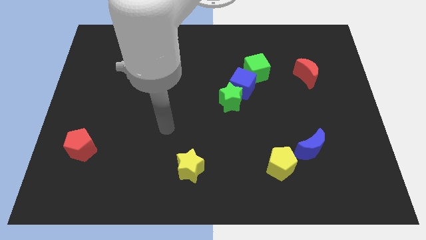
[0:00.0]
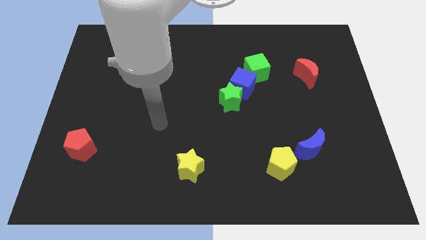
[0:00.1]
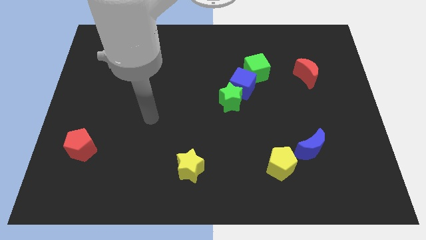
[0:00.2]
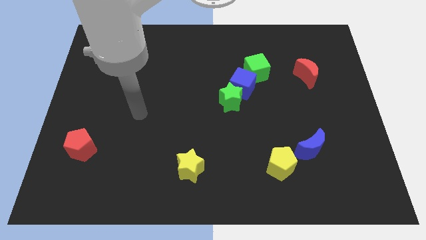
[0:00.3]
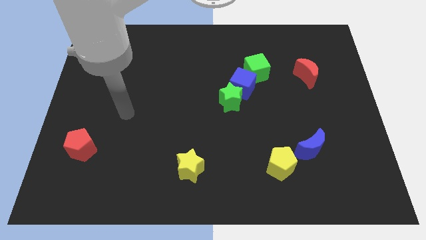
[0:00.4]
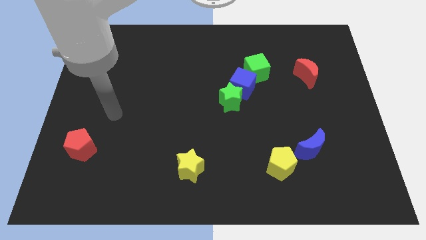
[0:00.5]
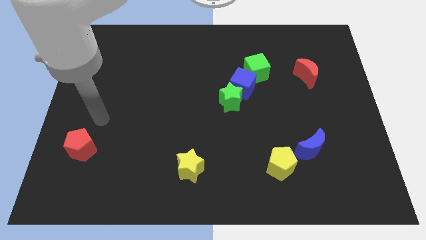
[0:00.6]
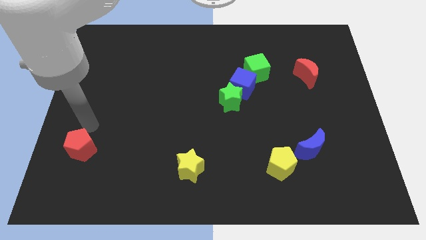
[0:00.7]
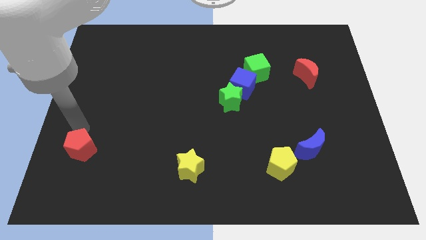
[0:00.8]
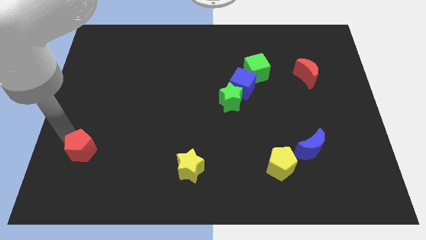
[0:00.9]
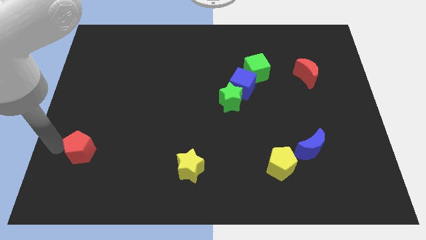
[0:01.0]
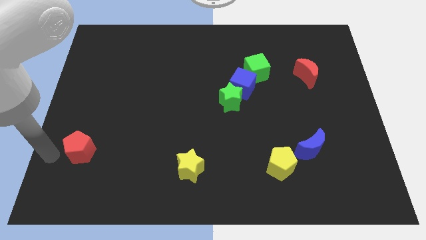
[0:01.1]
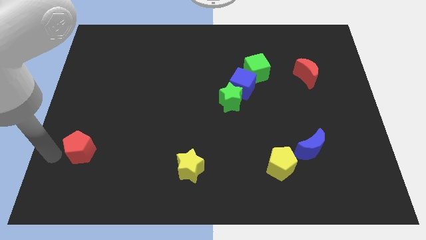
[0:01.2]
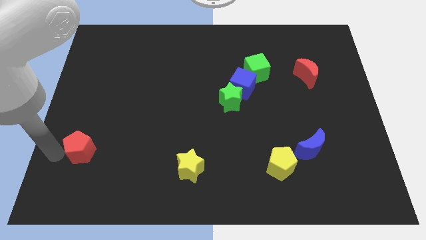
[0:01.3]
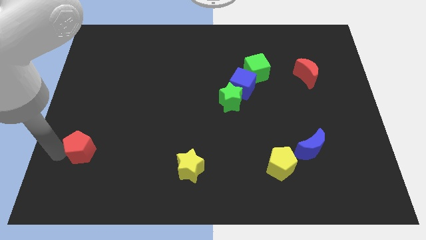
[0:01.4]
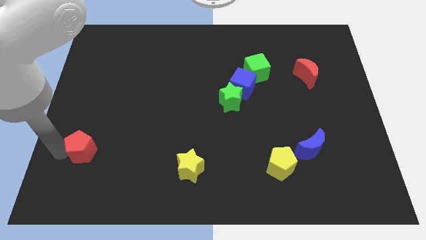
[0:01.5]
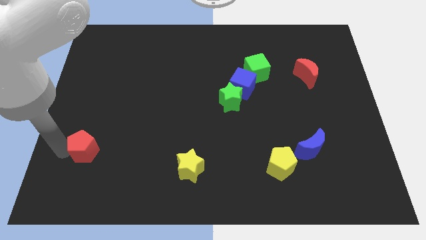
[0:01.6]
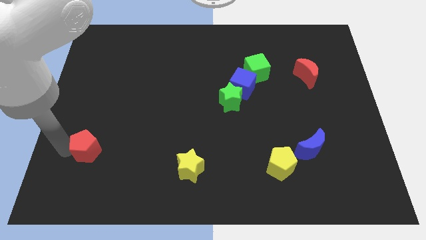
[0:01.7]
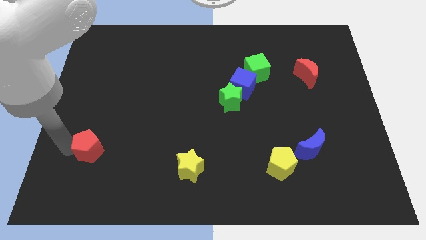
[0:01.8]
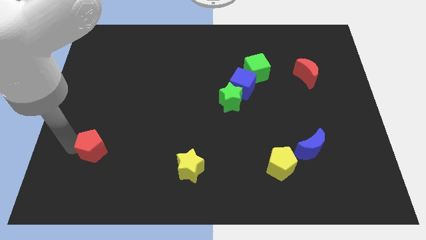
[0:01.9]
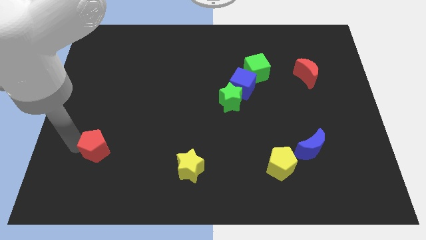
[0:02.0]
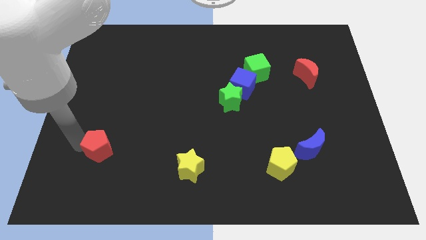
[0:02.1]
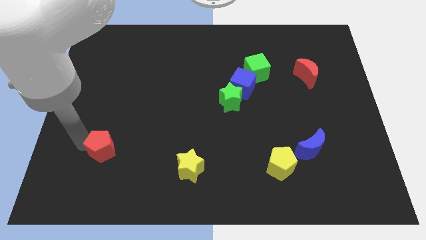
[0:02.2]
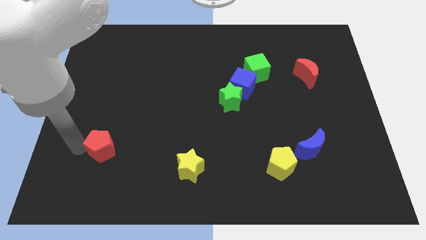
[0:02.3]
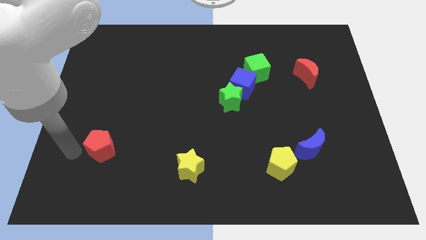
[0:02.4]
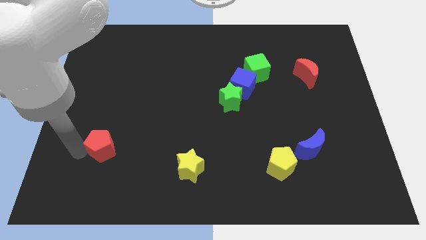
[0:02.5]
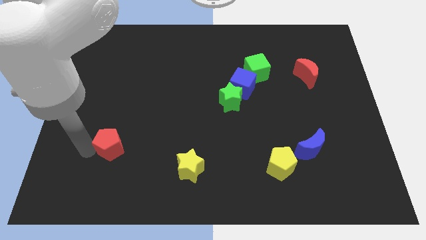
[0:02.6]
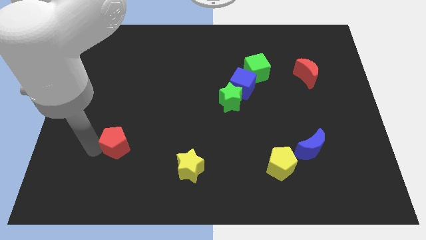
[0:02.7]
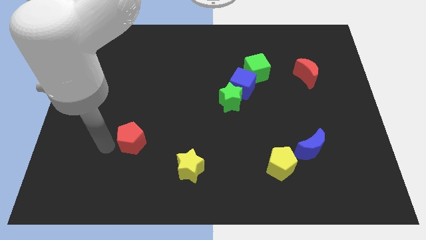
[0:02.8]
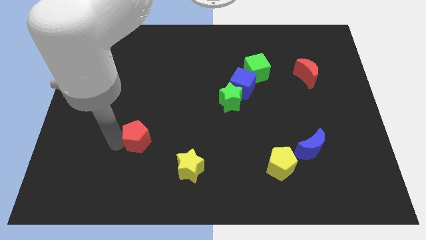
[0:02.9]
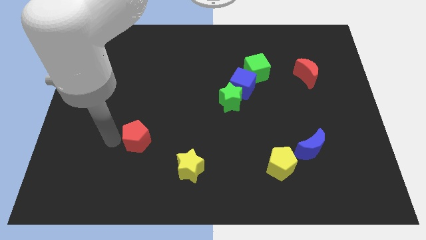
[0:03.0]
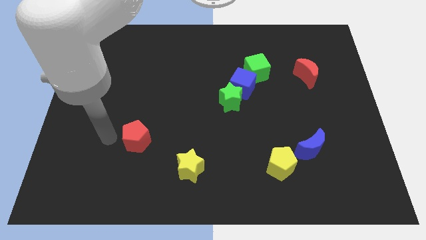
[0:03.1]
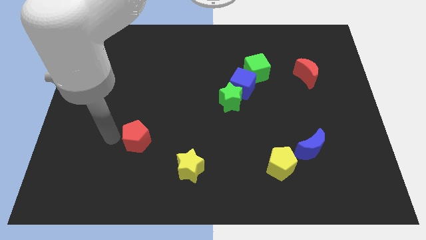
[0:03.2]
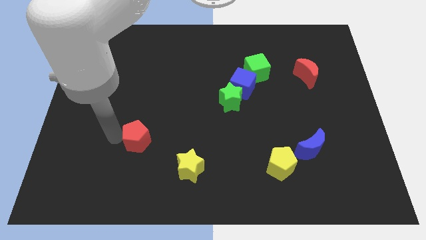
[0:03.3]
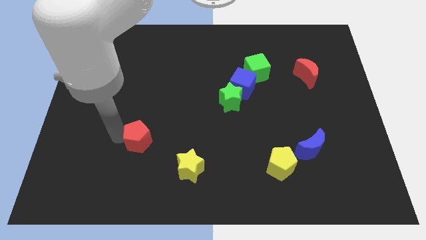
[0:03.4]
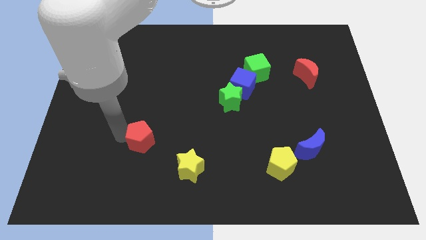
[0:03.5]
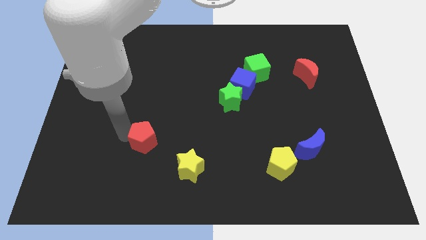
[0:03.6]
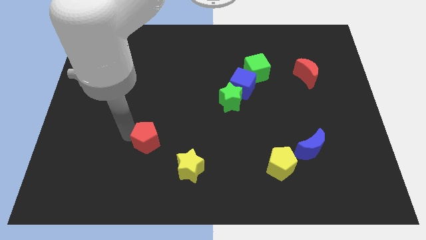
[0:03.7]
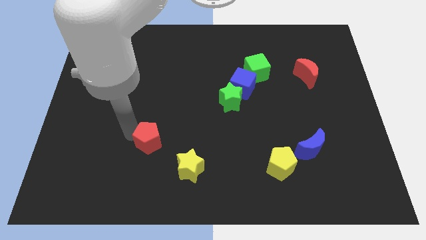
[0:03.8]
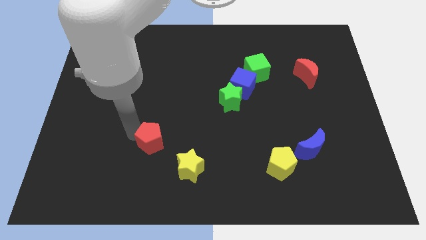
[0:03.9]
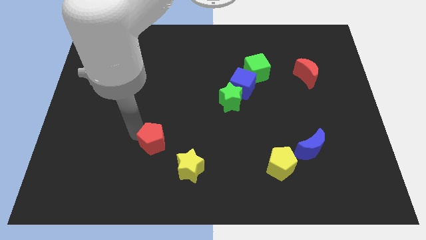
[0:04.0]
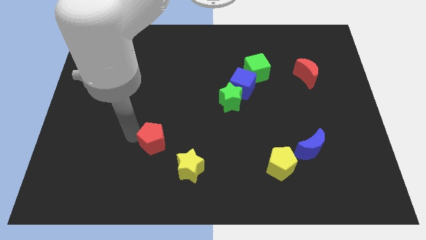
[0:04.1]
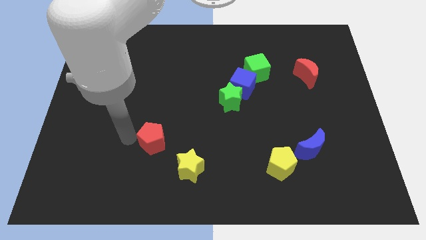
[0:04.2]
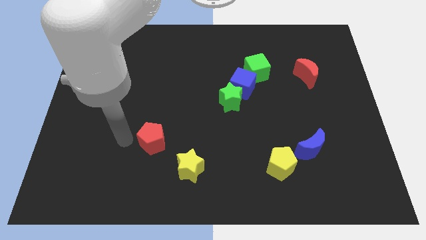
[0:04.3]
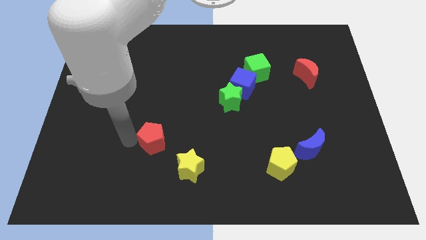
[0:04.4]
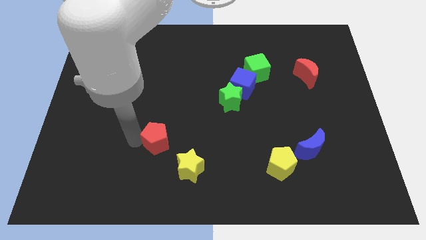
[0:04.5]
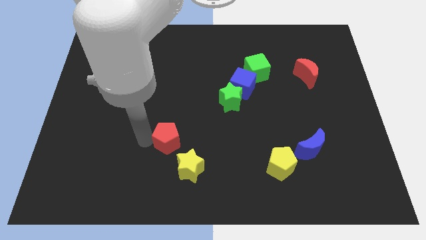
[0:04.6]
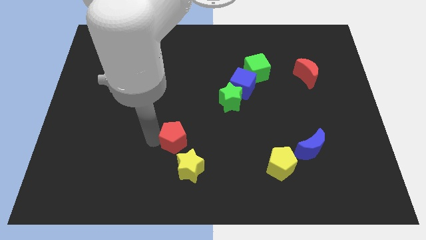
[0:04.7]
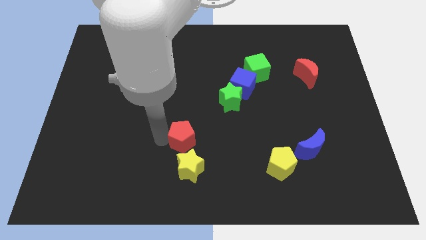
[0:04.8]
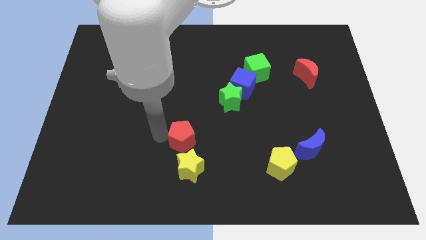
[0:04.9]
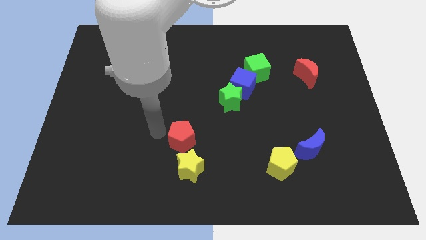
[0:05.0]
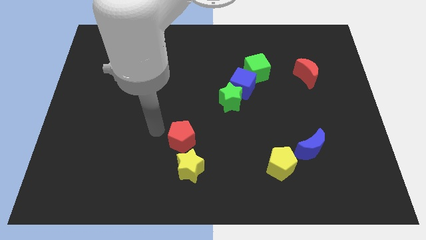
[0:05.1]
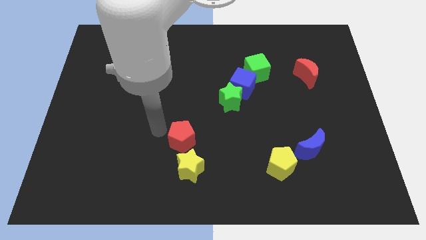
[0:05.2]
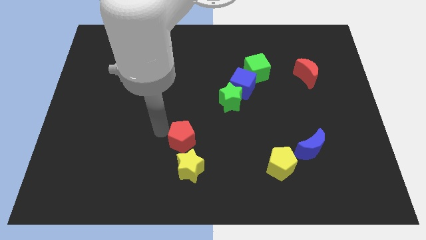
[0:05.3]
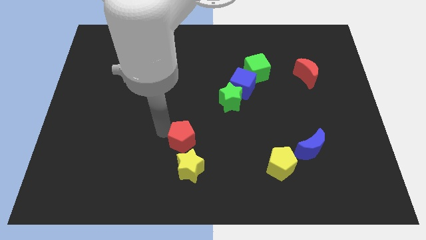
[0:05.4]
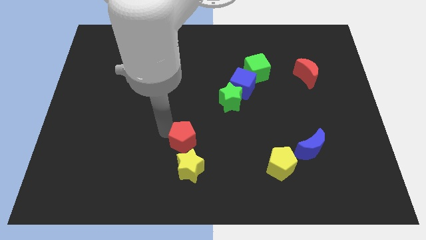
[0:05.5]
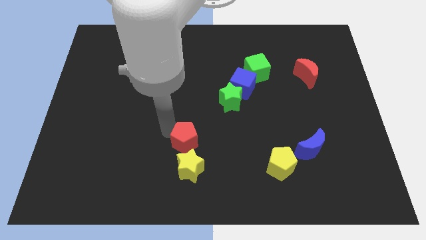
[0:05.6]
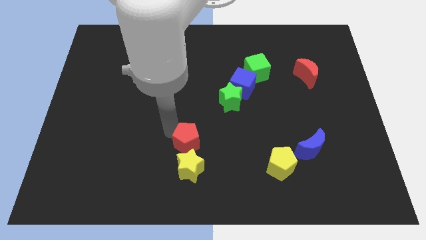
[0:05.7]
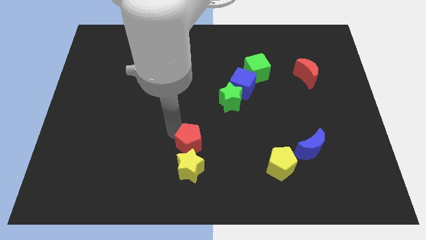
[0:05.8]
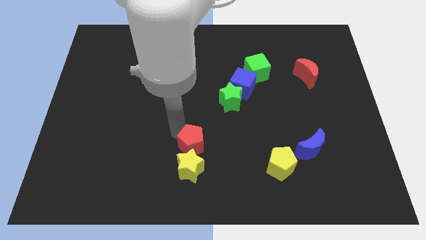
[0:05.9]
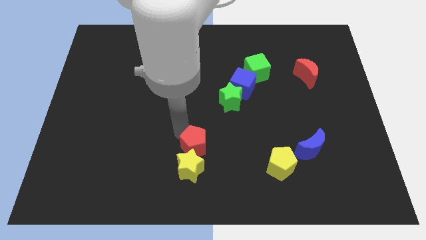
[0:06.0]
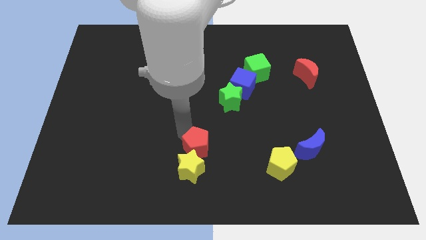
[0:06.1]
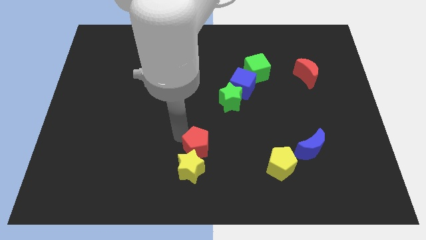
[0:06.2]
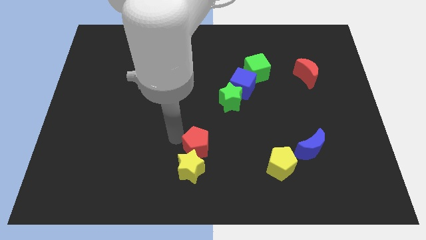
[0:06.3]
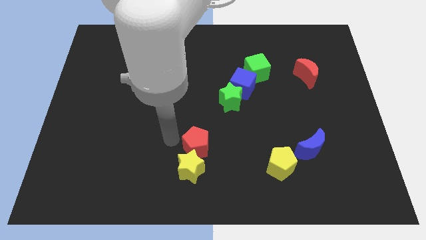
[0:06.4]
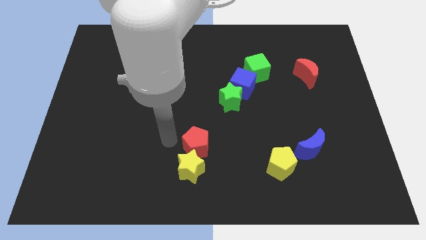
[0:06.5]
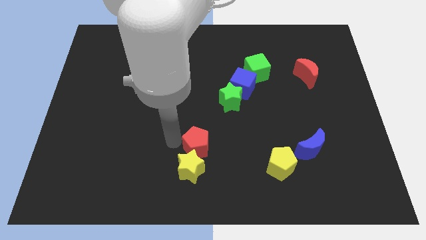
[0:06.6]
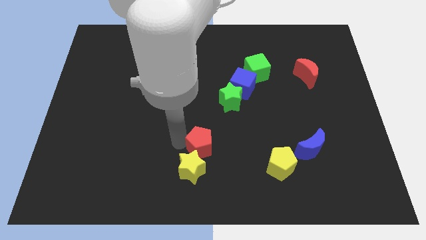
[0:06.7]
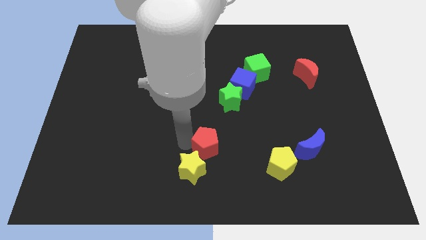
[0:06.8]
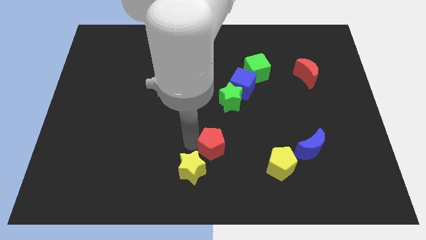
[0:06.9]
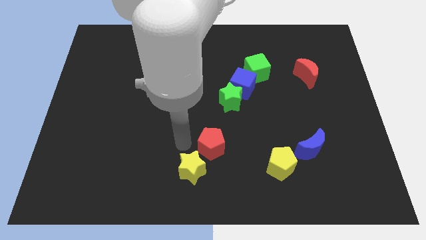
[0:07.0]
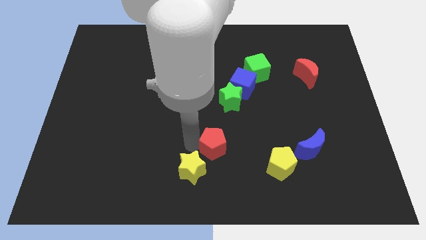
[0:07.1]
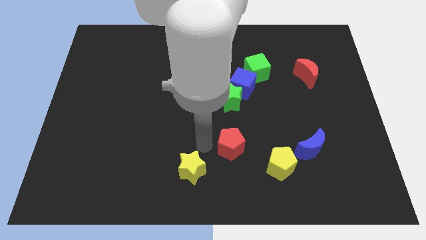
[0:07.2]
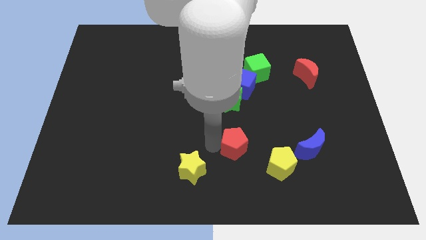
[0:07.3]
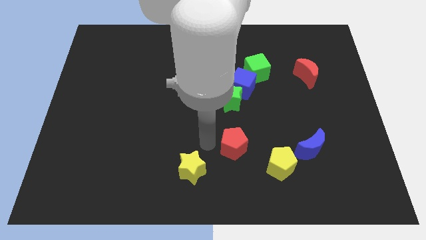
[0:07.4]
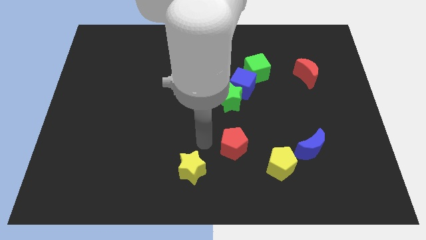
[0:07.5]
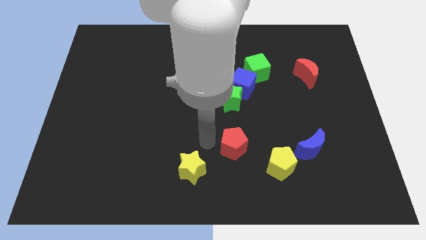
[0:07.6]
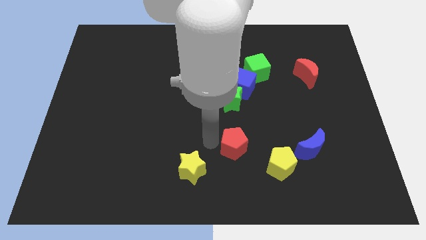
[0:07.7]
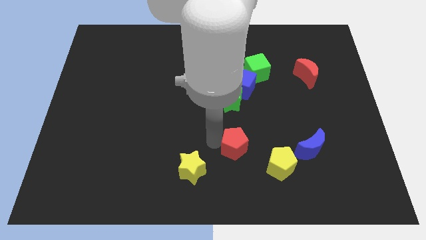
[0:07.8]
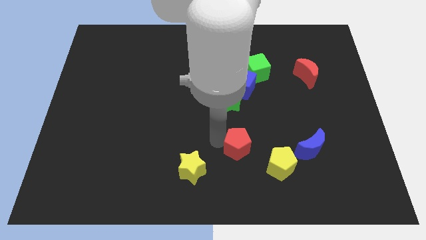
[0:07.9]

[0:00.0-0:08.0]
move the red pentagon just left of the blue moon
